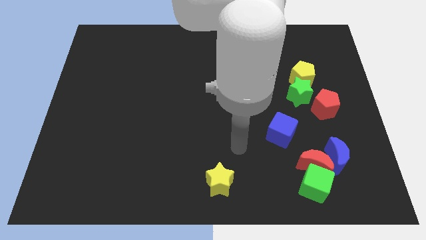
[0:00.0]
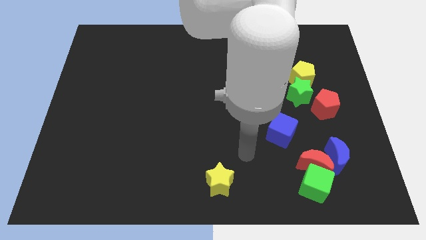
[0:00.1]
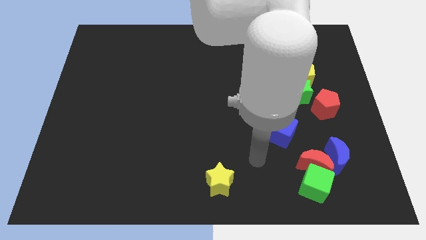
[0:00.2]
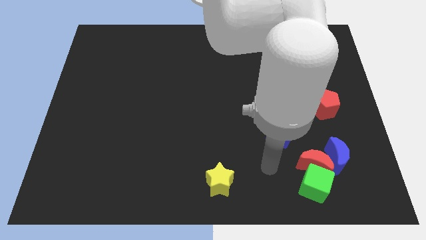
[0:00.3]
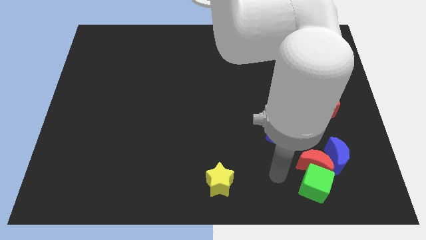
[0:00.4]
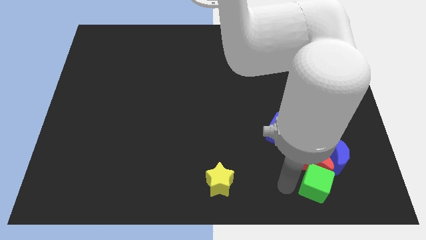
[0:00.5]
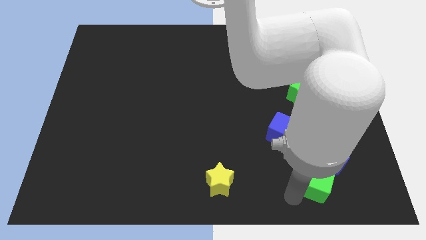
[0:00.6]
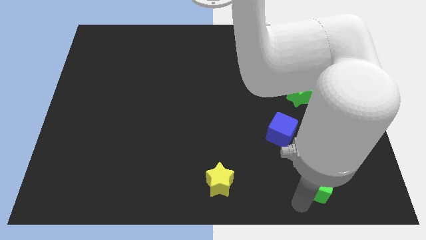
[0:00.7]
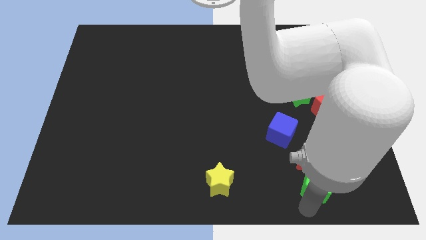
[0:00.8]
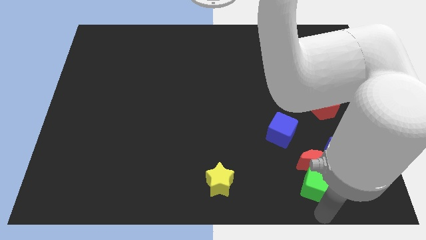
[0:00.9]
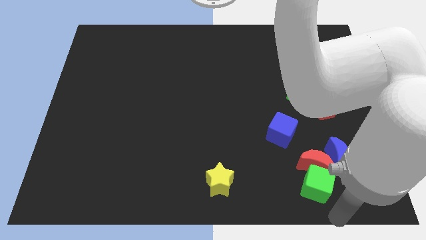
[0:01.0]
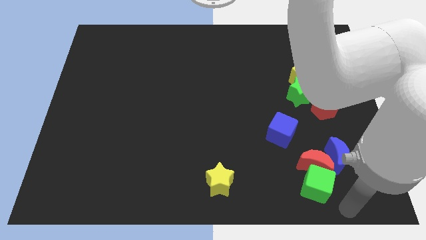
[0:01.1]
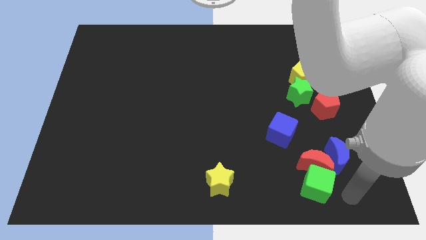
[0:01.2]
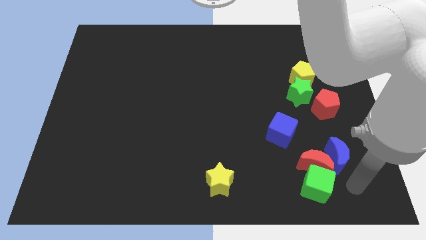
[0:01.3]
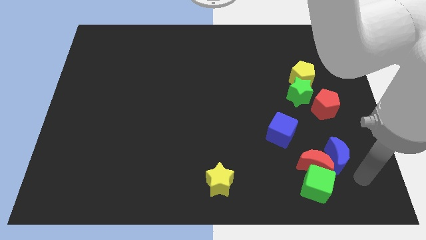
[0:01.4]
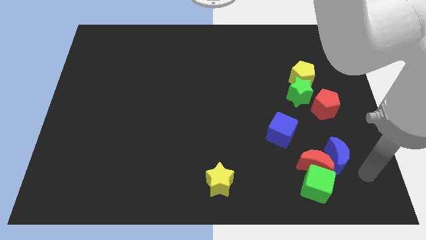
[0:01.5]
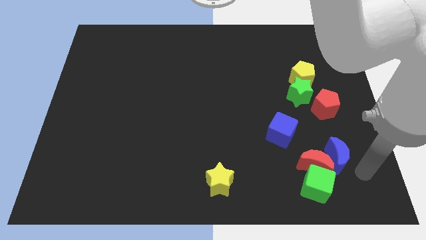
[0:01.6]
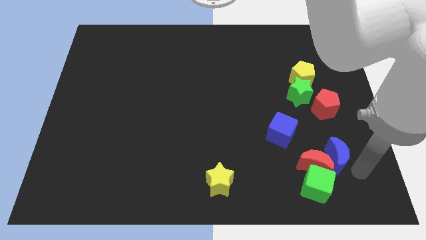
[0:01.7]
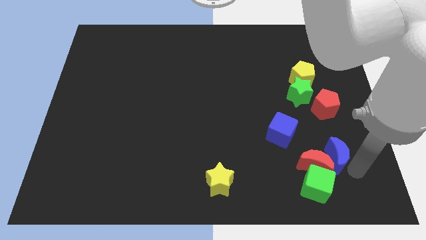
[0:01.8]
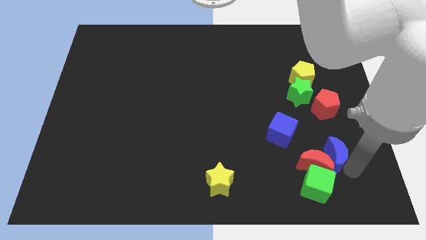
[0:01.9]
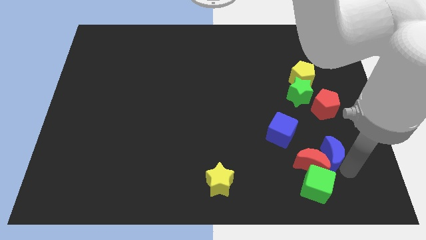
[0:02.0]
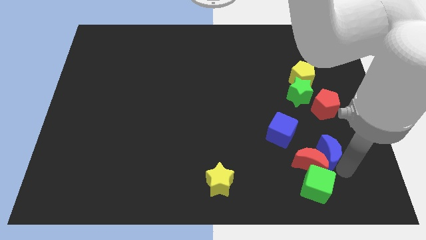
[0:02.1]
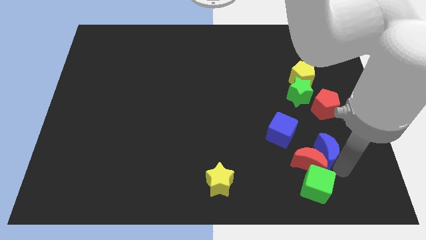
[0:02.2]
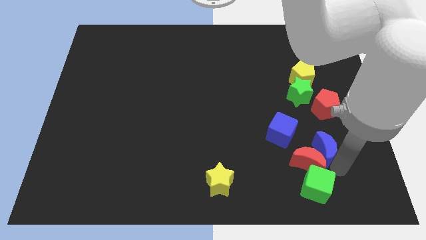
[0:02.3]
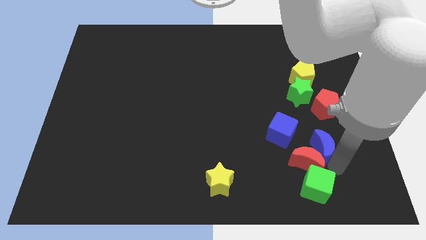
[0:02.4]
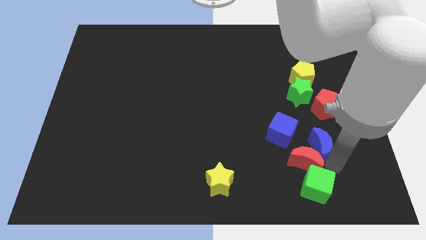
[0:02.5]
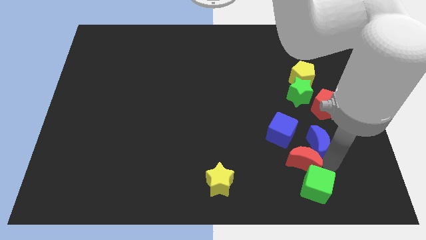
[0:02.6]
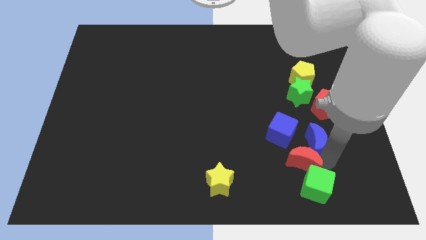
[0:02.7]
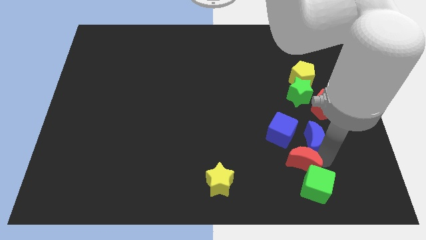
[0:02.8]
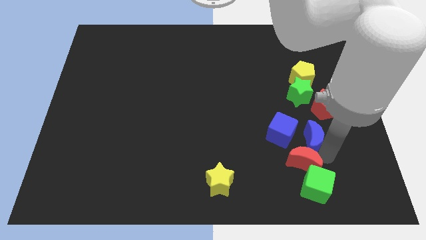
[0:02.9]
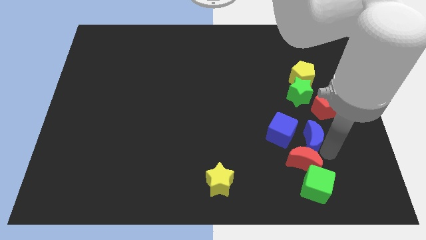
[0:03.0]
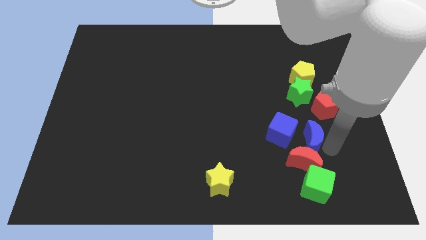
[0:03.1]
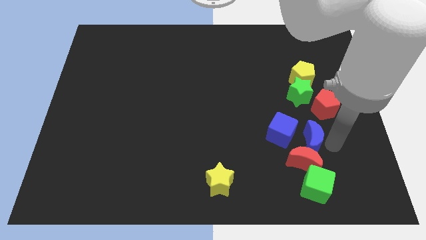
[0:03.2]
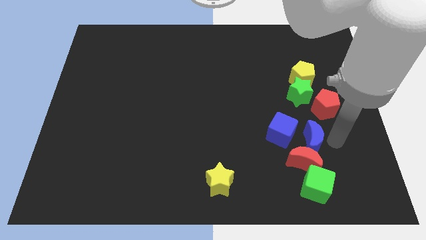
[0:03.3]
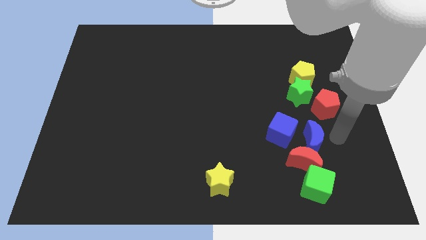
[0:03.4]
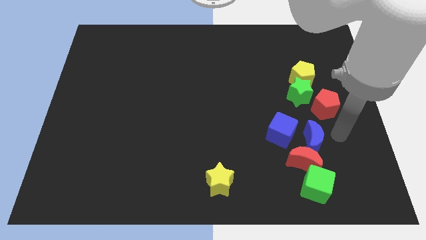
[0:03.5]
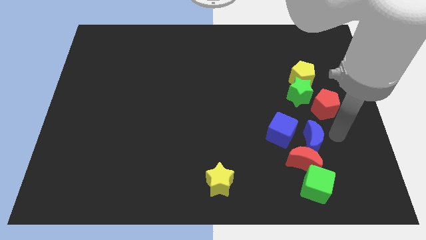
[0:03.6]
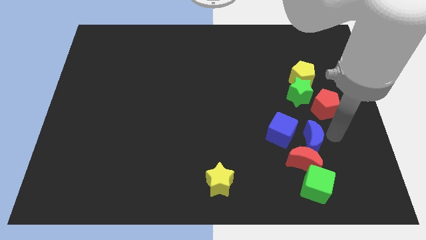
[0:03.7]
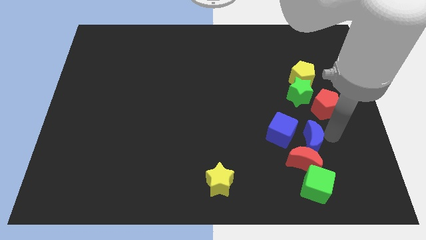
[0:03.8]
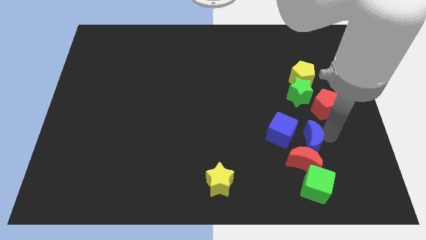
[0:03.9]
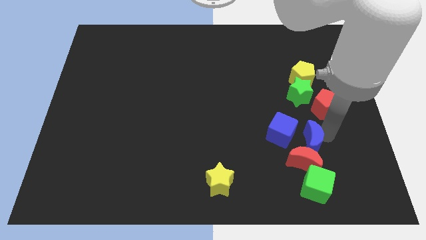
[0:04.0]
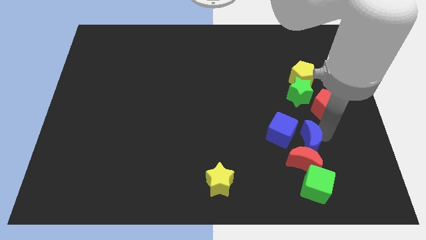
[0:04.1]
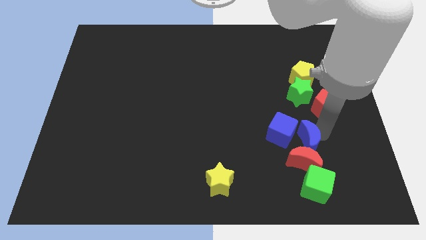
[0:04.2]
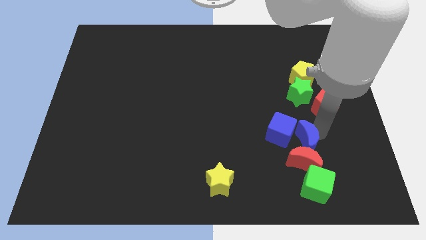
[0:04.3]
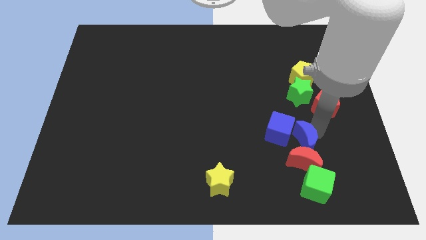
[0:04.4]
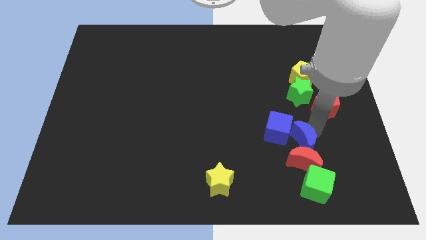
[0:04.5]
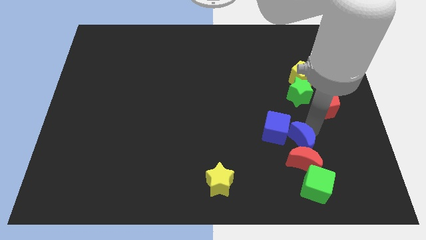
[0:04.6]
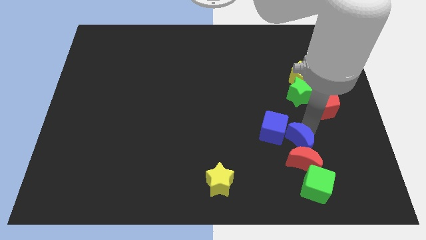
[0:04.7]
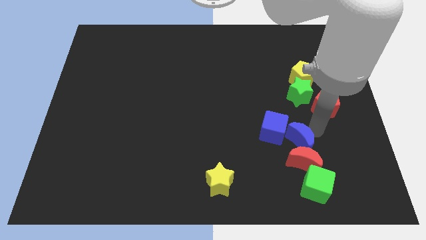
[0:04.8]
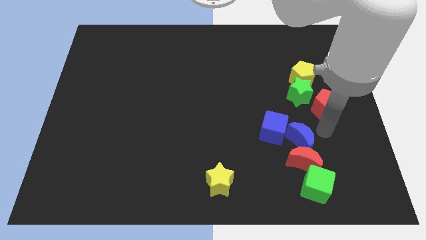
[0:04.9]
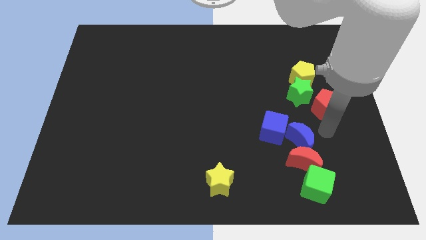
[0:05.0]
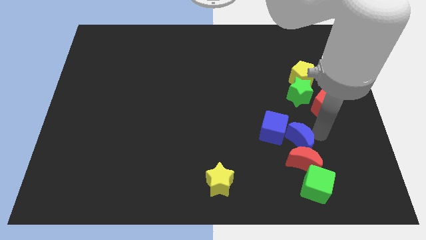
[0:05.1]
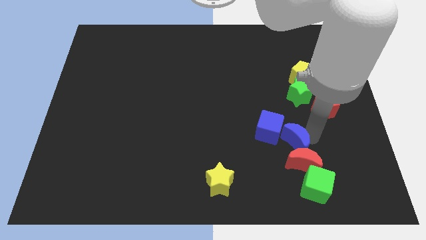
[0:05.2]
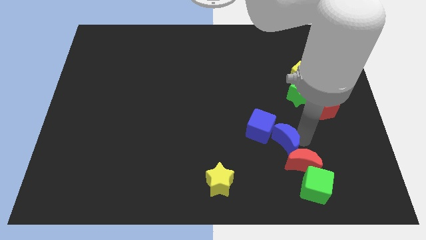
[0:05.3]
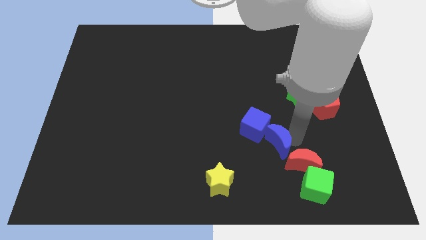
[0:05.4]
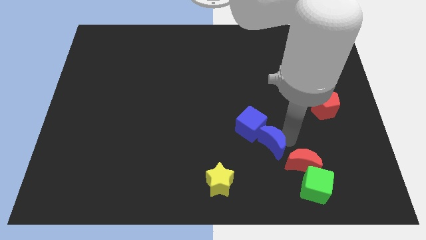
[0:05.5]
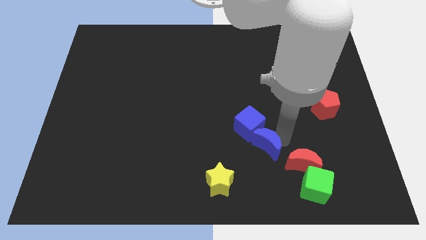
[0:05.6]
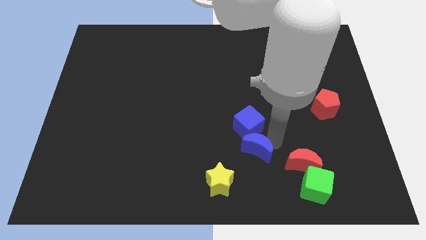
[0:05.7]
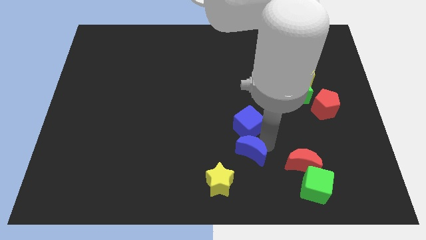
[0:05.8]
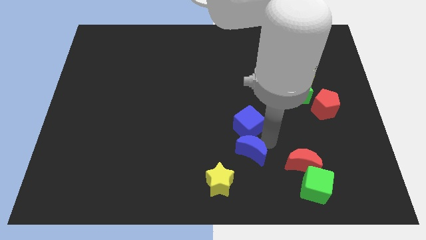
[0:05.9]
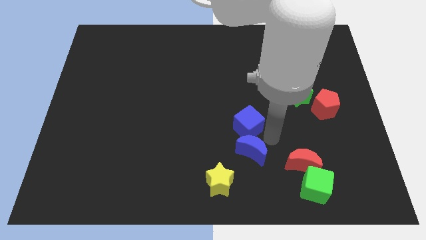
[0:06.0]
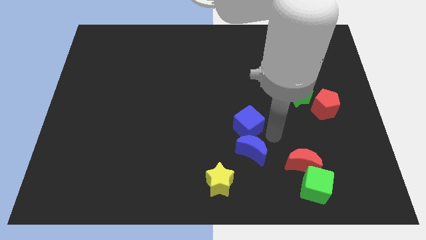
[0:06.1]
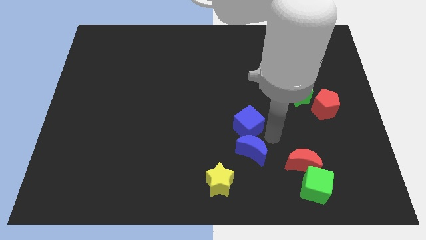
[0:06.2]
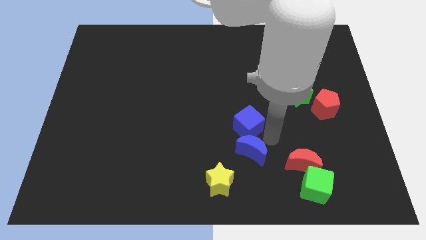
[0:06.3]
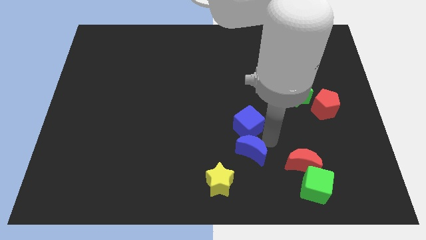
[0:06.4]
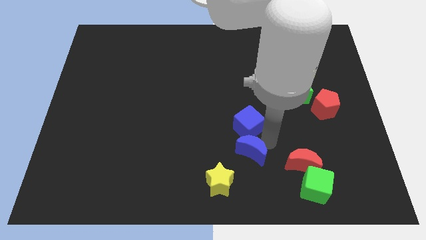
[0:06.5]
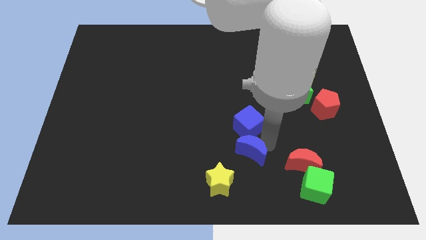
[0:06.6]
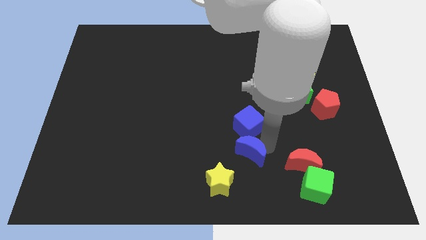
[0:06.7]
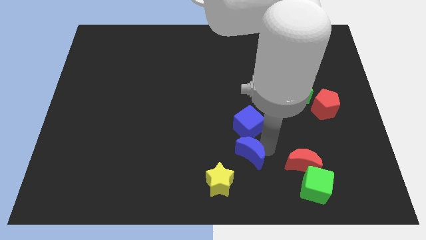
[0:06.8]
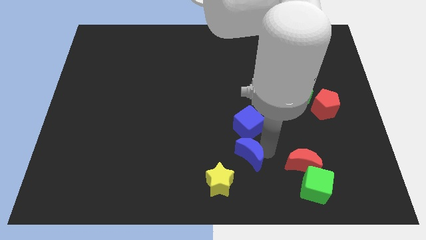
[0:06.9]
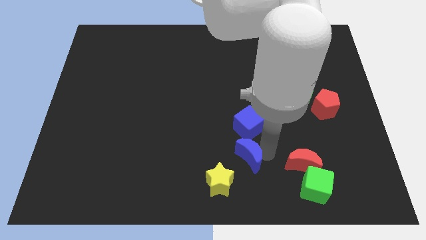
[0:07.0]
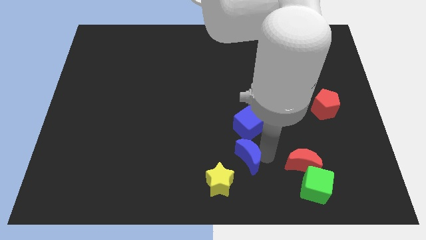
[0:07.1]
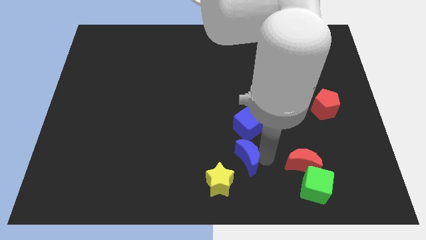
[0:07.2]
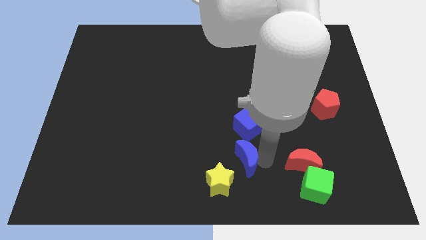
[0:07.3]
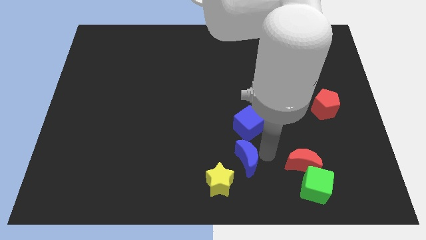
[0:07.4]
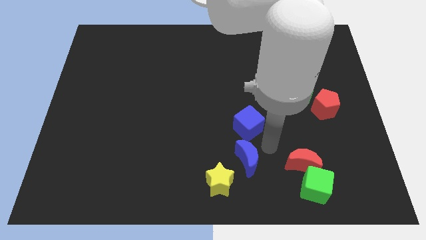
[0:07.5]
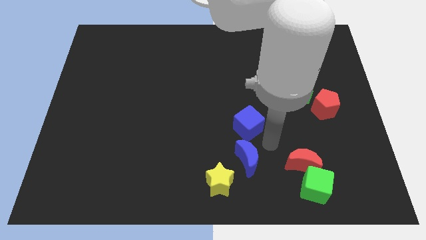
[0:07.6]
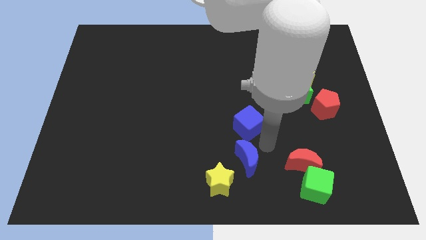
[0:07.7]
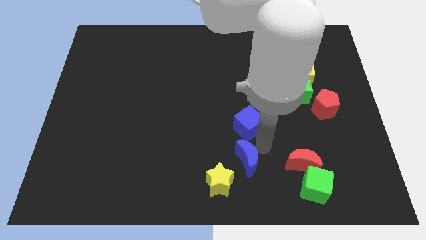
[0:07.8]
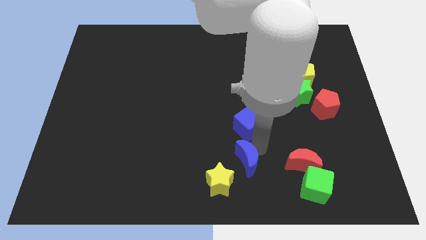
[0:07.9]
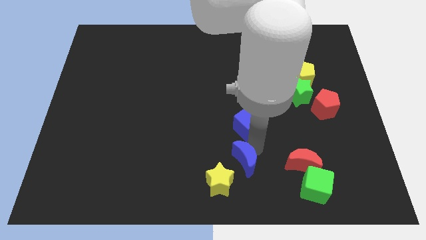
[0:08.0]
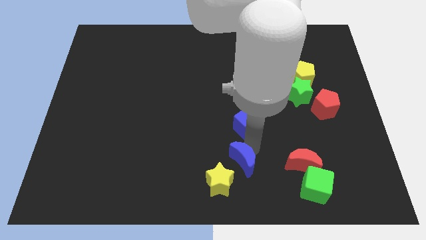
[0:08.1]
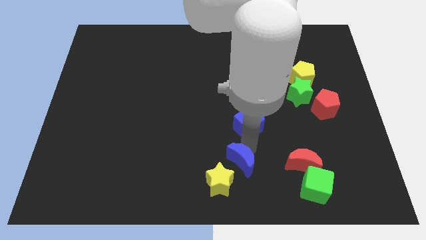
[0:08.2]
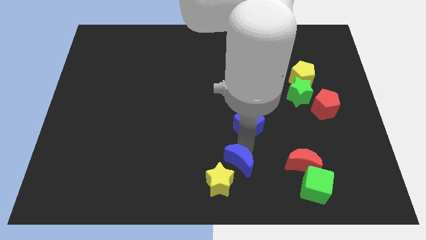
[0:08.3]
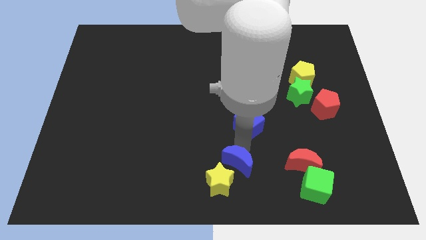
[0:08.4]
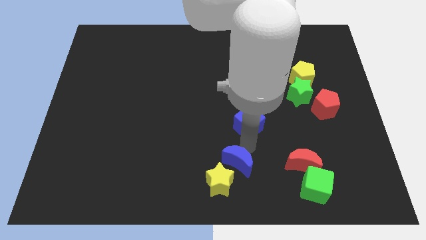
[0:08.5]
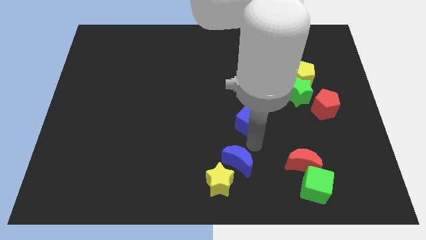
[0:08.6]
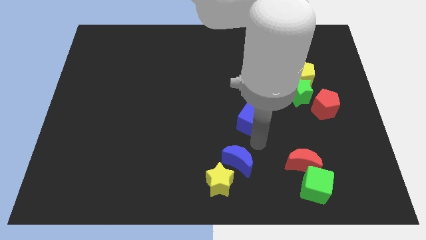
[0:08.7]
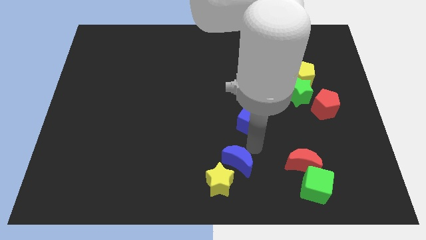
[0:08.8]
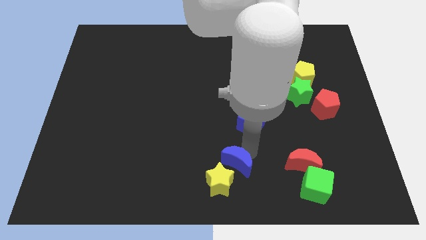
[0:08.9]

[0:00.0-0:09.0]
move the blue moon towards the yellow star
